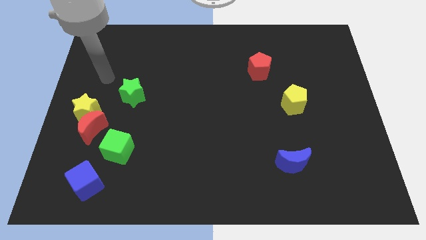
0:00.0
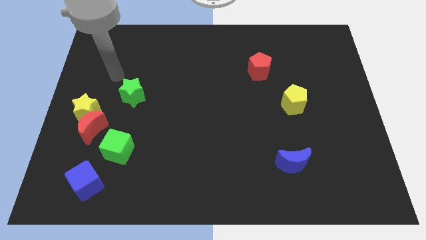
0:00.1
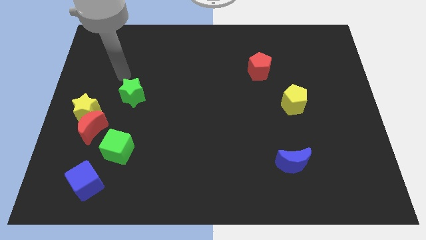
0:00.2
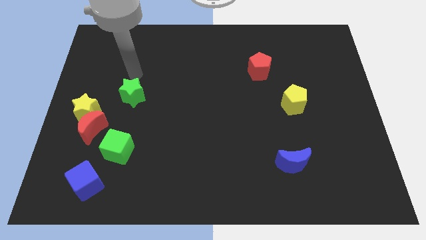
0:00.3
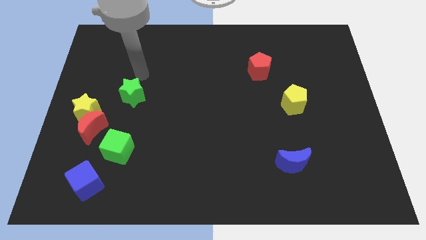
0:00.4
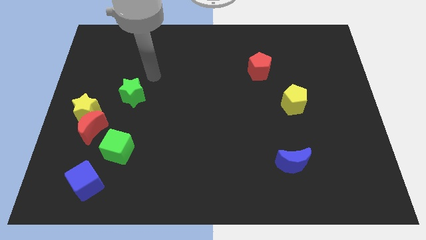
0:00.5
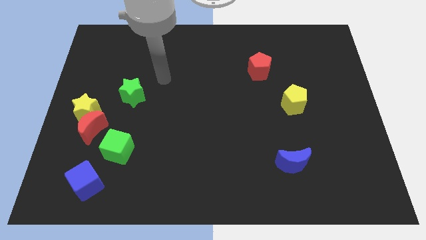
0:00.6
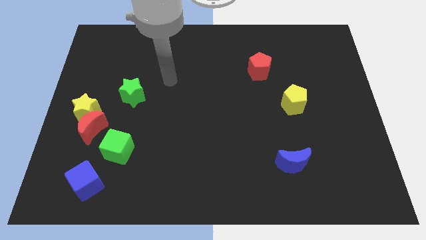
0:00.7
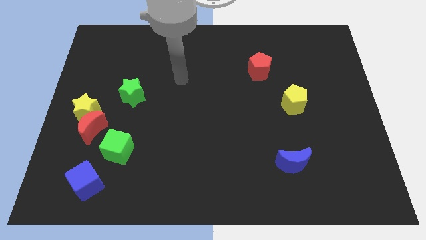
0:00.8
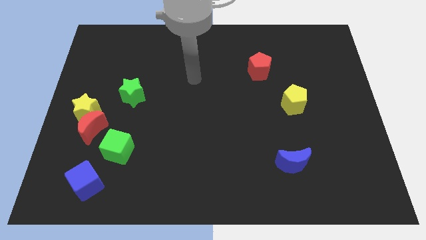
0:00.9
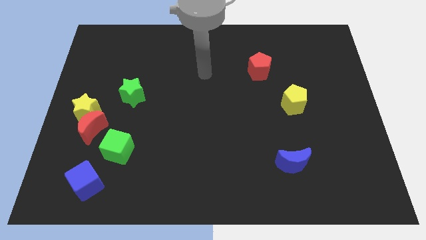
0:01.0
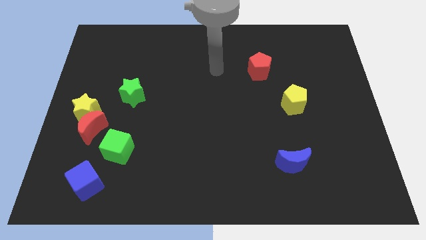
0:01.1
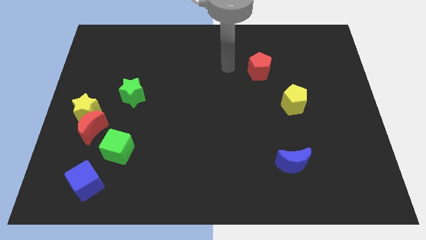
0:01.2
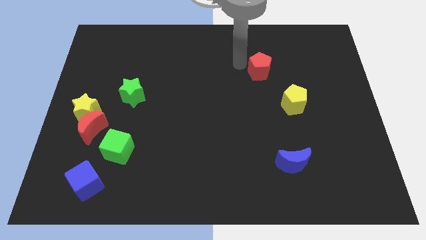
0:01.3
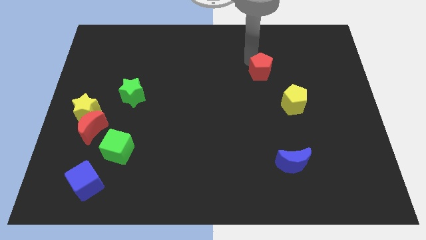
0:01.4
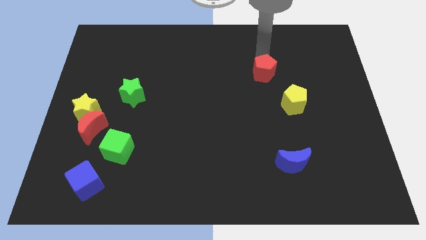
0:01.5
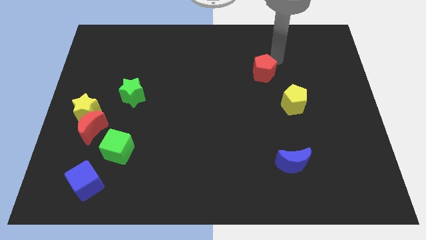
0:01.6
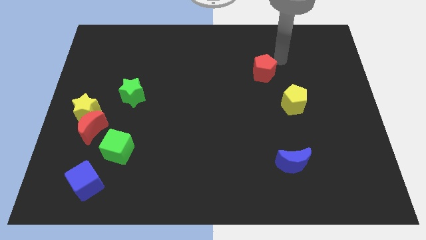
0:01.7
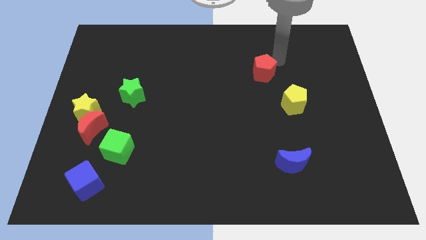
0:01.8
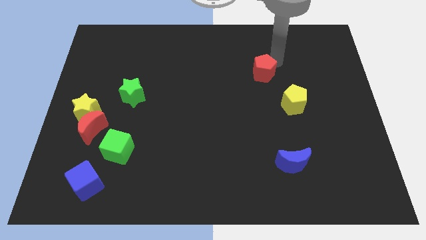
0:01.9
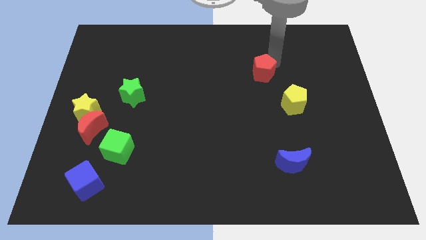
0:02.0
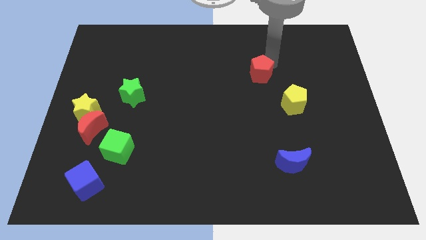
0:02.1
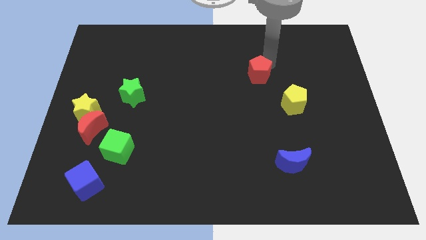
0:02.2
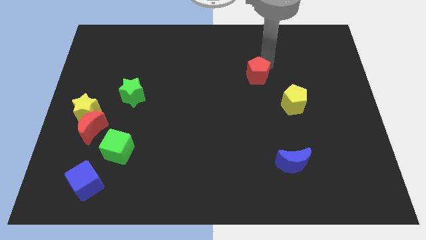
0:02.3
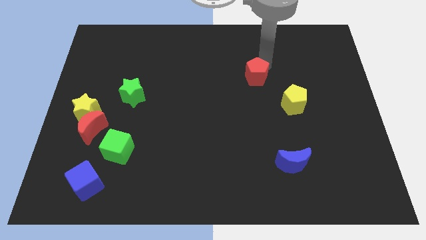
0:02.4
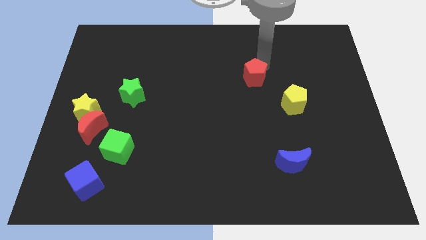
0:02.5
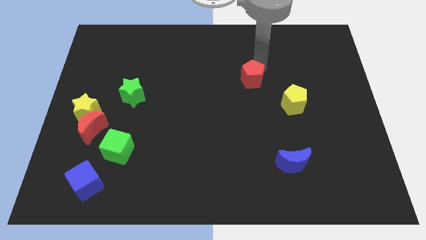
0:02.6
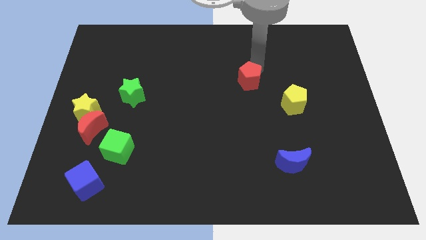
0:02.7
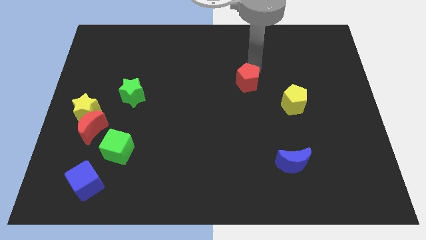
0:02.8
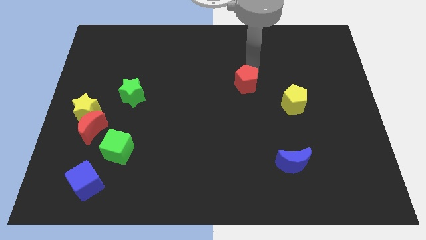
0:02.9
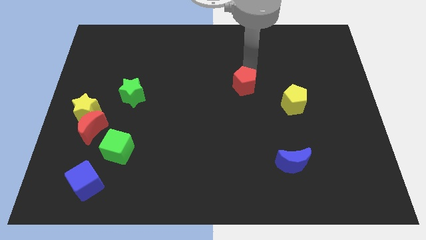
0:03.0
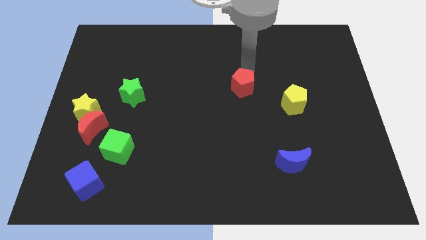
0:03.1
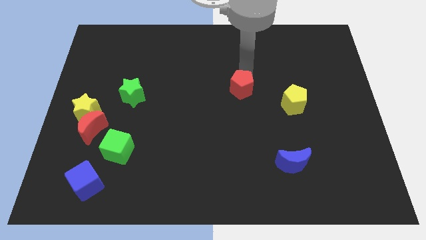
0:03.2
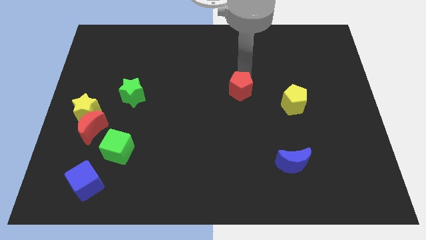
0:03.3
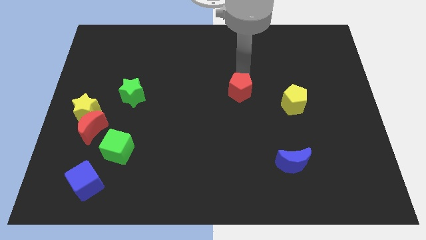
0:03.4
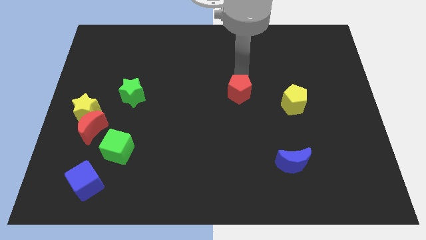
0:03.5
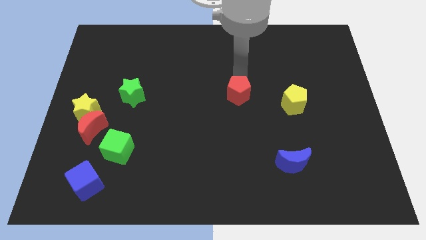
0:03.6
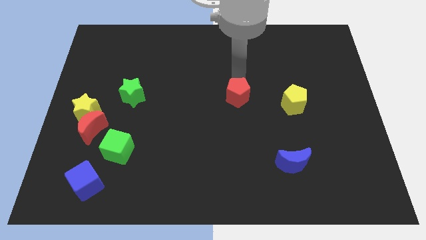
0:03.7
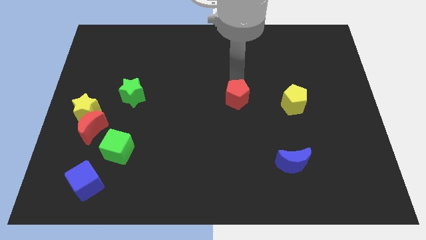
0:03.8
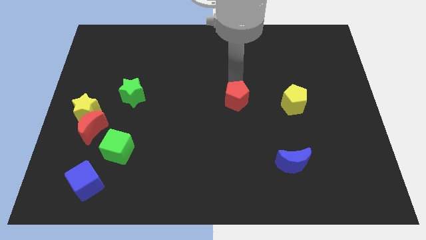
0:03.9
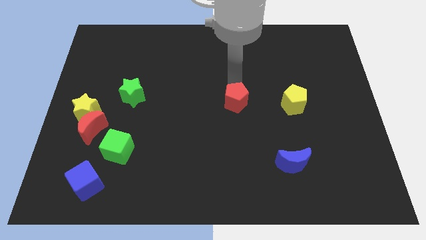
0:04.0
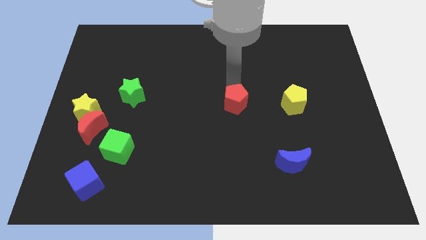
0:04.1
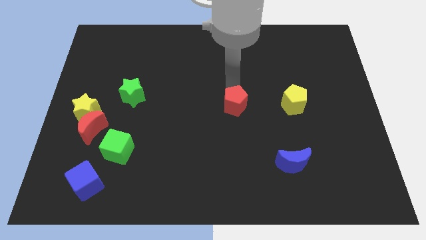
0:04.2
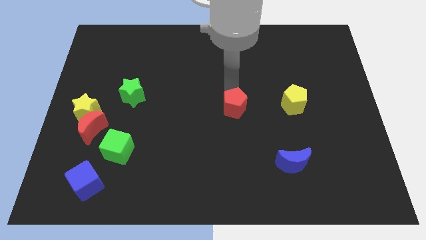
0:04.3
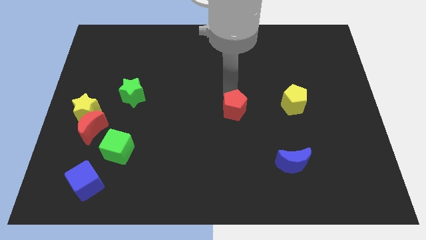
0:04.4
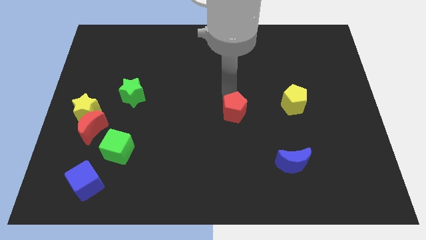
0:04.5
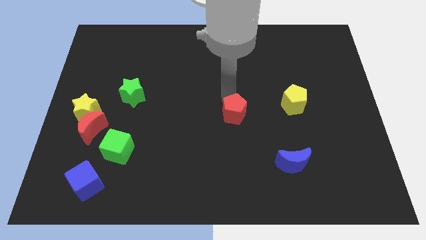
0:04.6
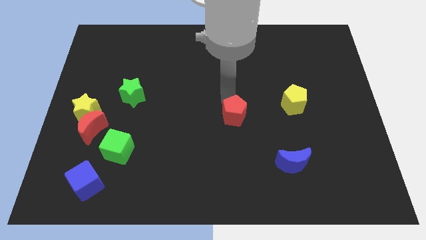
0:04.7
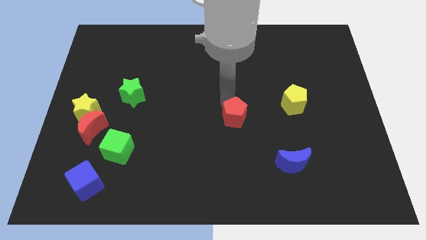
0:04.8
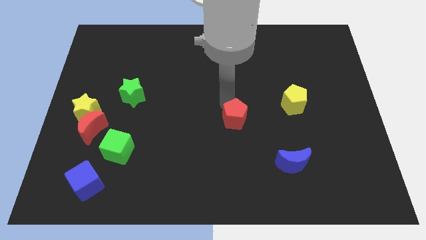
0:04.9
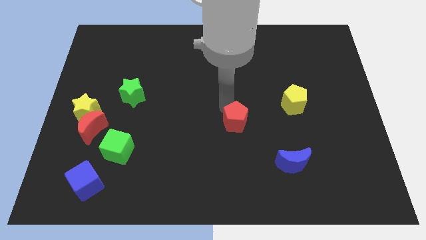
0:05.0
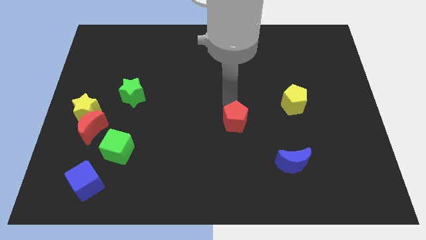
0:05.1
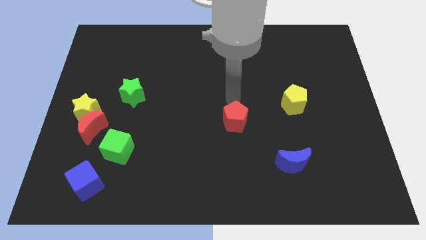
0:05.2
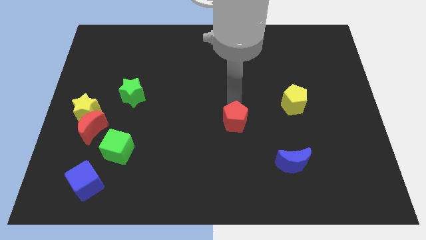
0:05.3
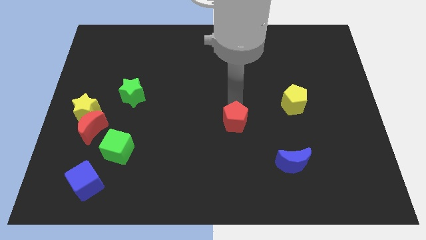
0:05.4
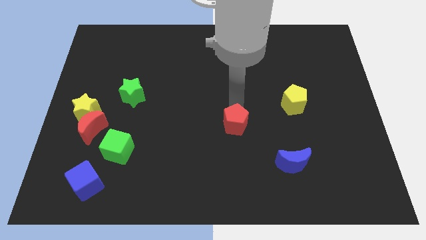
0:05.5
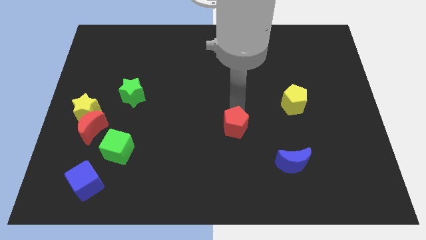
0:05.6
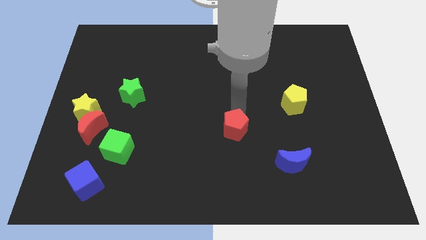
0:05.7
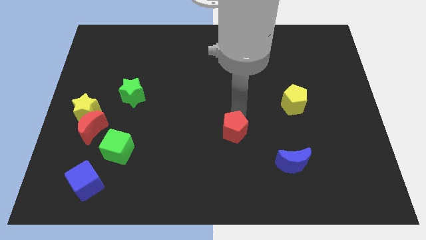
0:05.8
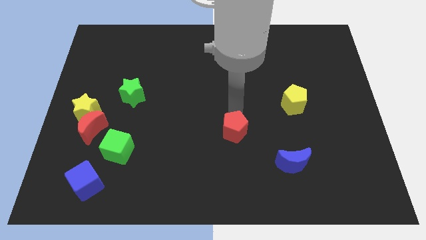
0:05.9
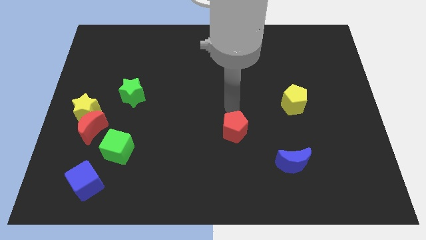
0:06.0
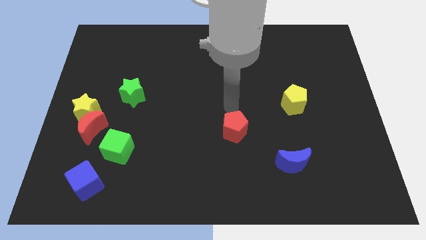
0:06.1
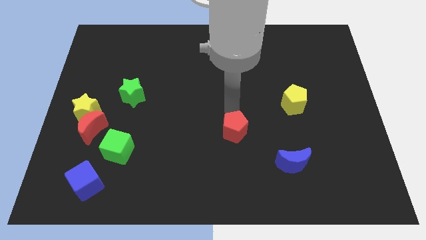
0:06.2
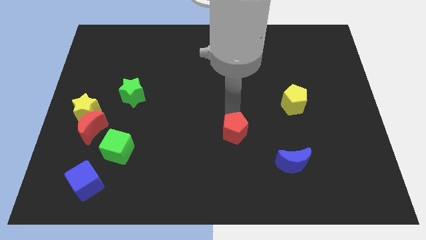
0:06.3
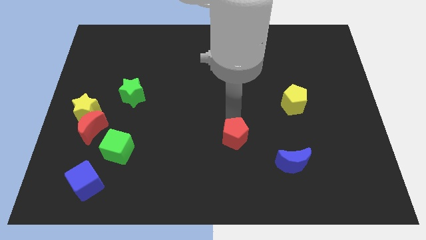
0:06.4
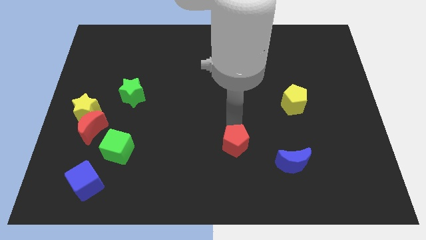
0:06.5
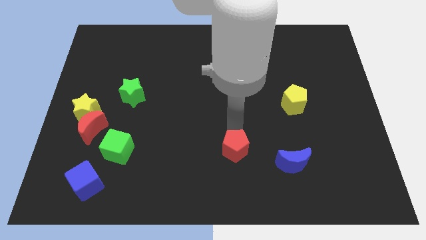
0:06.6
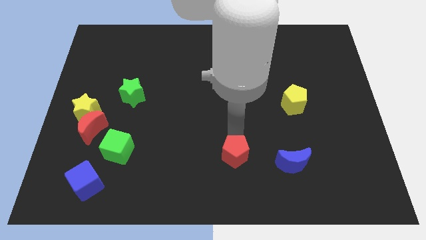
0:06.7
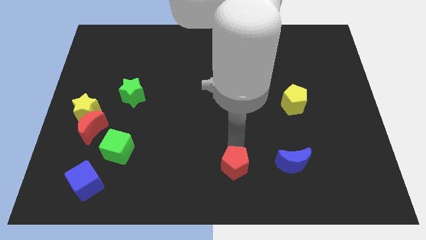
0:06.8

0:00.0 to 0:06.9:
put the red pentagon to the bottom side
